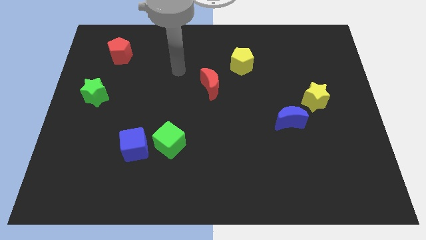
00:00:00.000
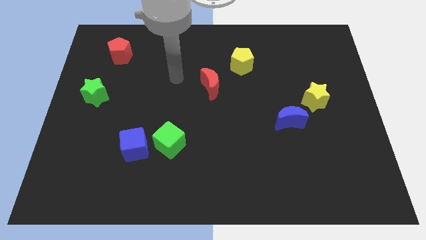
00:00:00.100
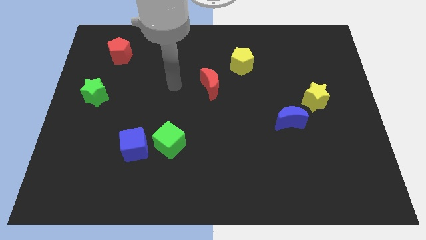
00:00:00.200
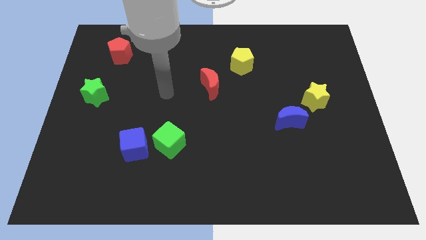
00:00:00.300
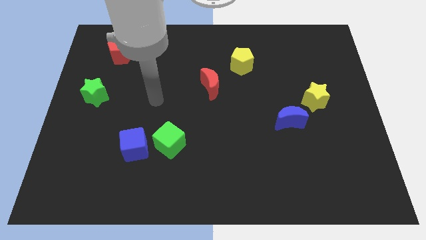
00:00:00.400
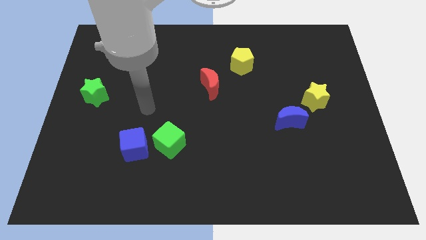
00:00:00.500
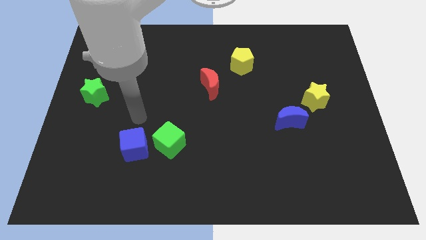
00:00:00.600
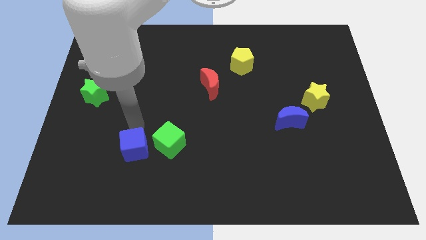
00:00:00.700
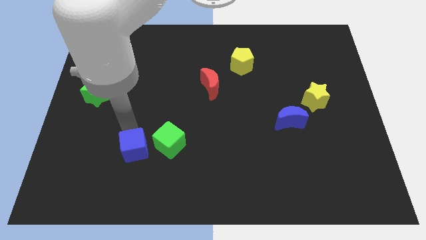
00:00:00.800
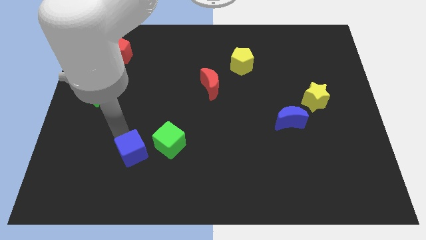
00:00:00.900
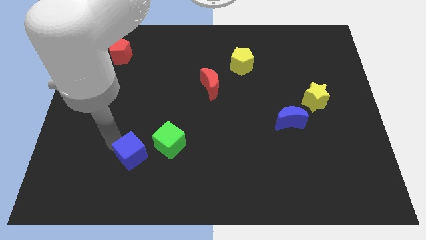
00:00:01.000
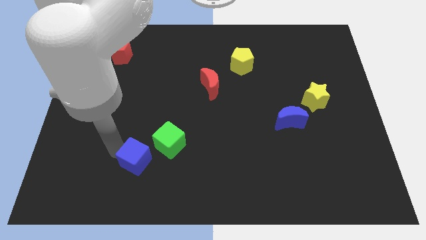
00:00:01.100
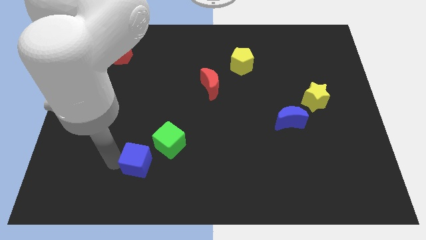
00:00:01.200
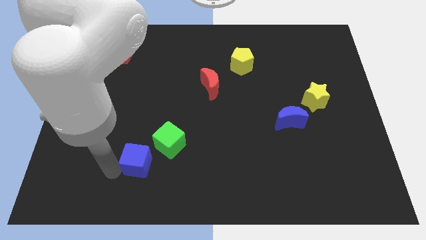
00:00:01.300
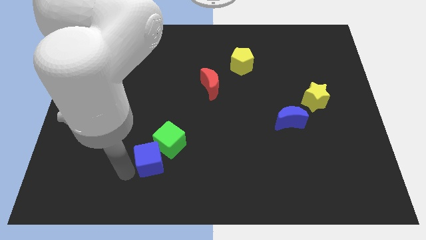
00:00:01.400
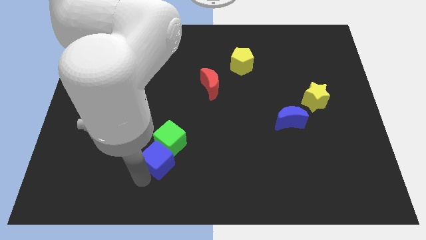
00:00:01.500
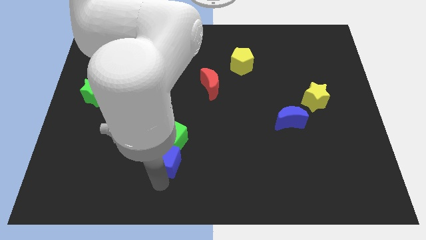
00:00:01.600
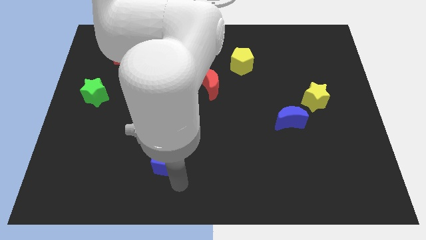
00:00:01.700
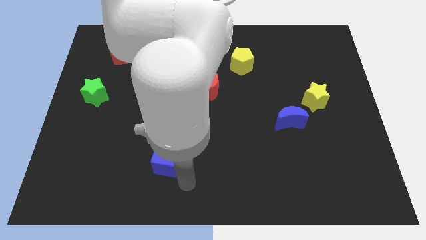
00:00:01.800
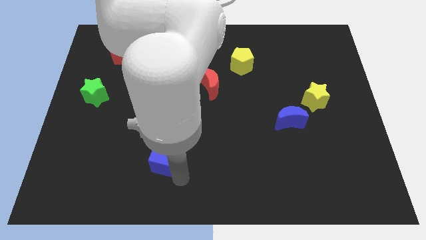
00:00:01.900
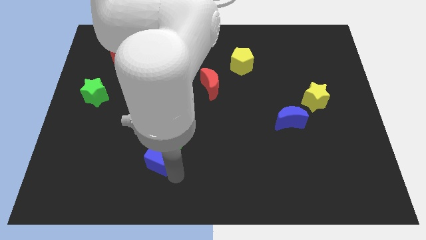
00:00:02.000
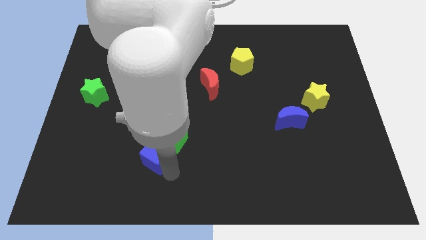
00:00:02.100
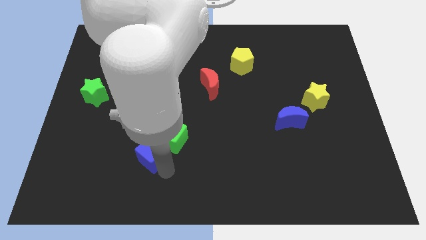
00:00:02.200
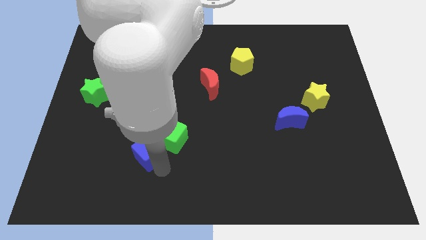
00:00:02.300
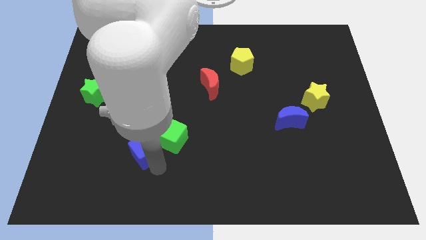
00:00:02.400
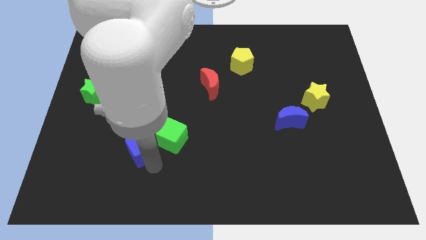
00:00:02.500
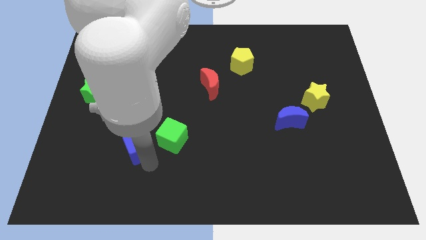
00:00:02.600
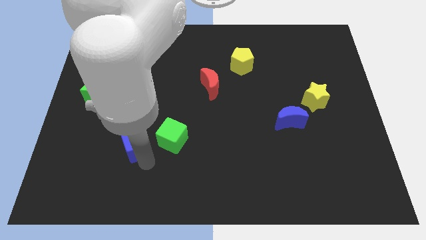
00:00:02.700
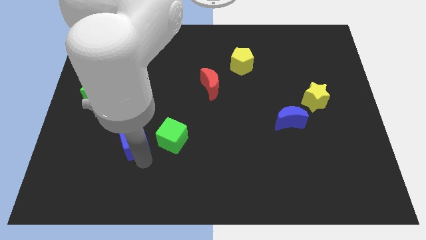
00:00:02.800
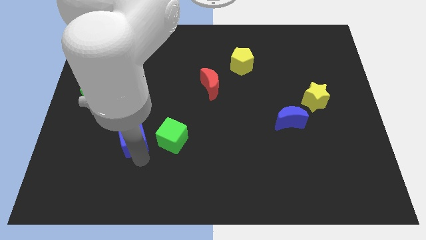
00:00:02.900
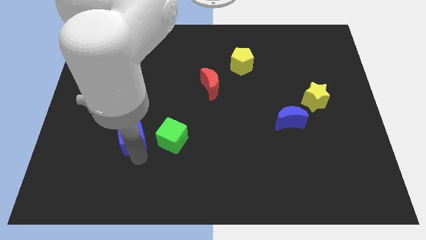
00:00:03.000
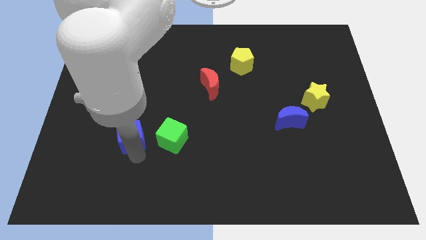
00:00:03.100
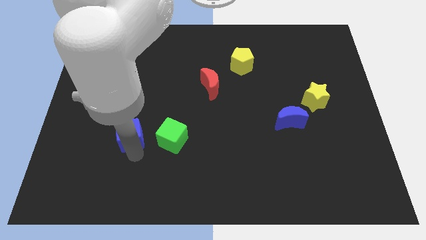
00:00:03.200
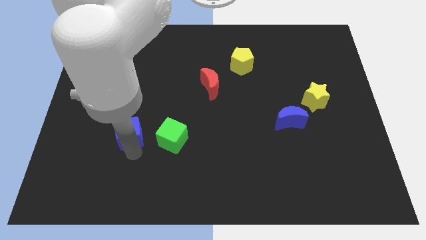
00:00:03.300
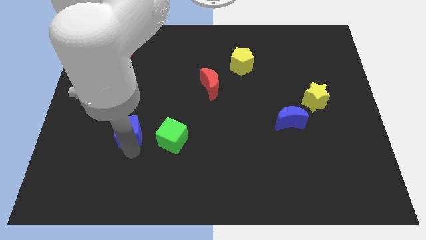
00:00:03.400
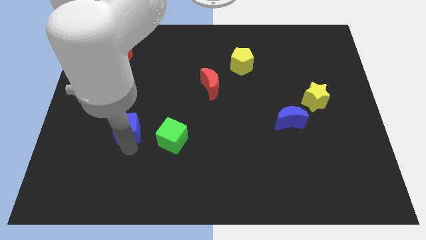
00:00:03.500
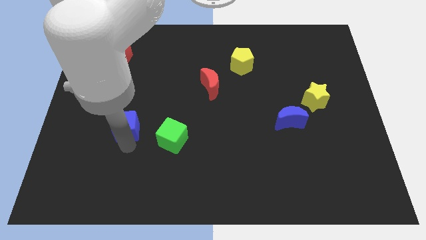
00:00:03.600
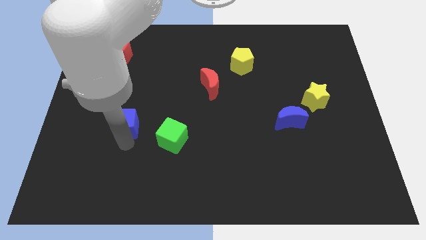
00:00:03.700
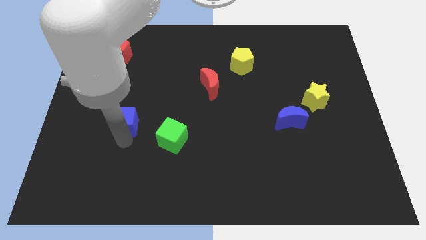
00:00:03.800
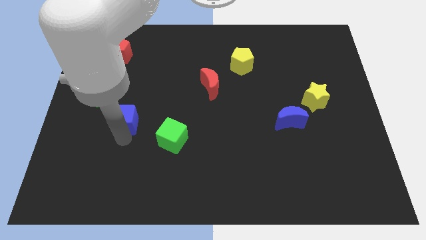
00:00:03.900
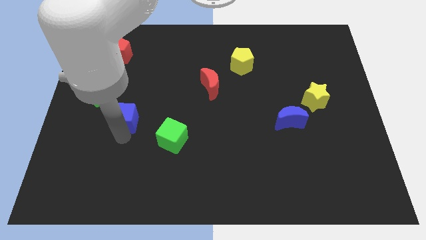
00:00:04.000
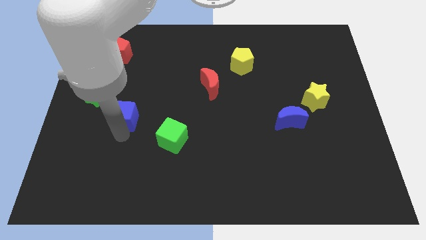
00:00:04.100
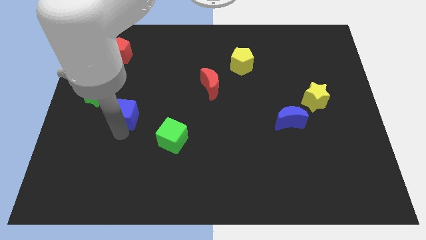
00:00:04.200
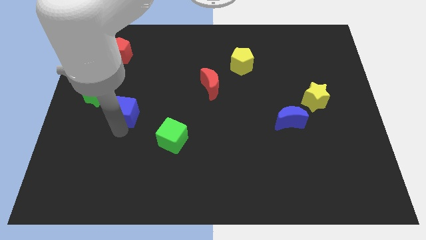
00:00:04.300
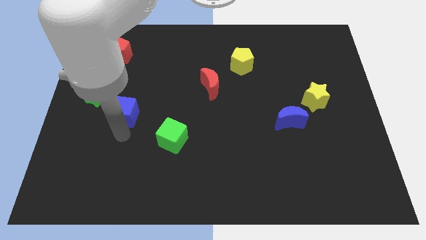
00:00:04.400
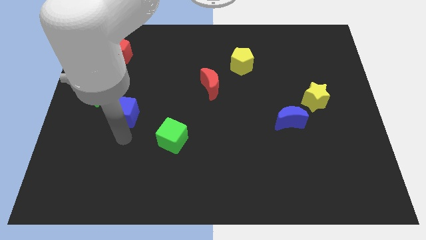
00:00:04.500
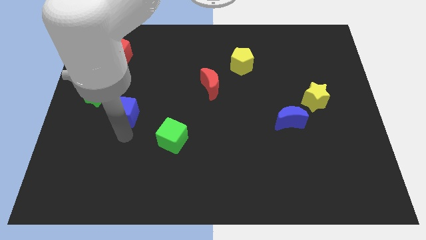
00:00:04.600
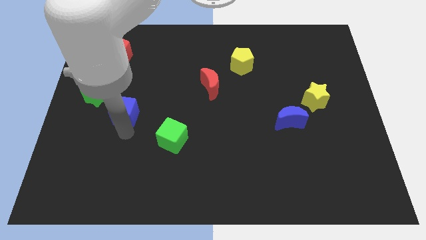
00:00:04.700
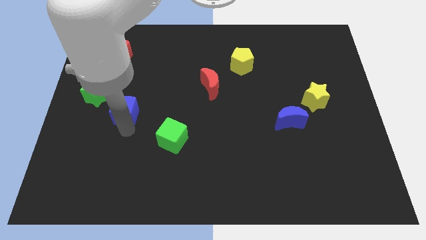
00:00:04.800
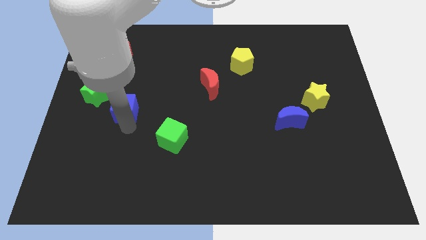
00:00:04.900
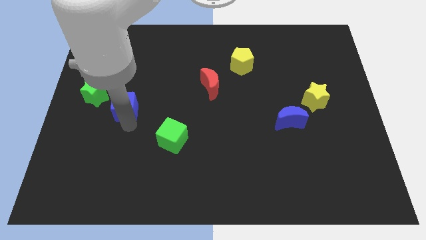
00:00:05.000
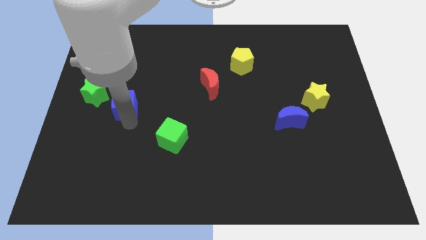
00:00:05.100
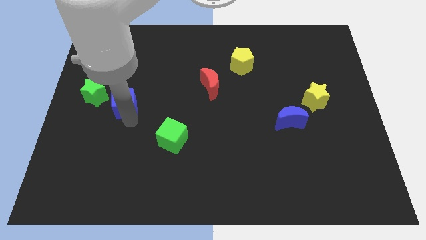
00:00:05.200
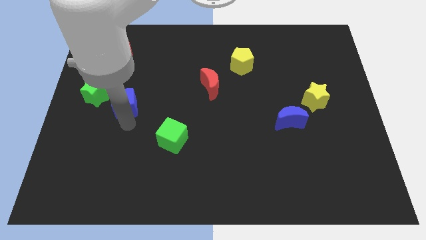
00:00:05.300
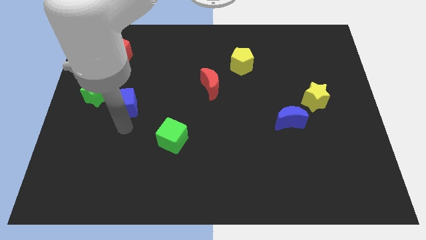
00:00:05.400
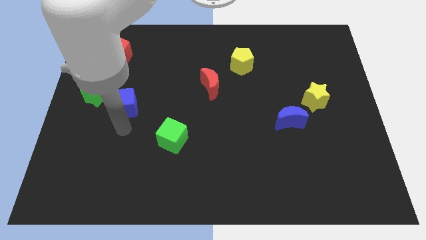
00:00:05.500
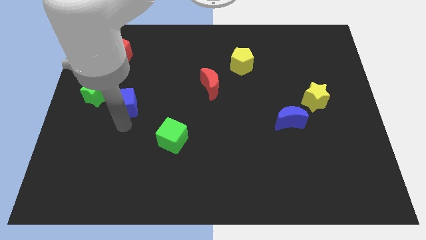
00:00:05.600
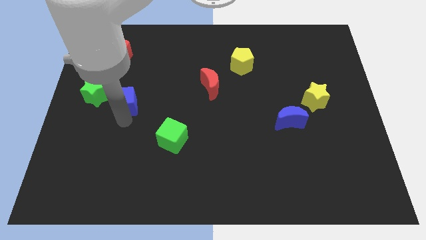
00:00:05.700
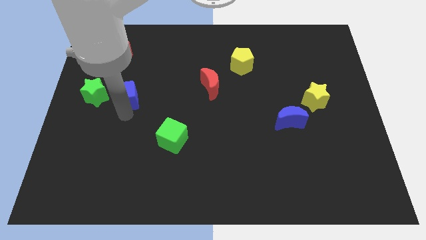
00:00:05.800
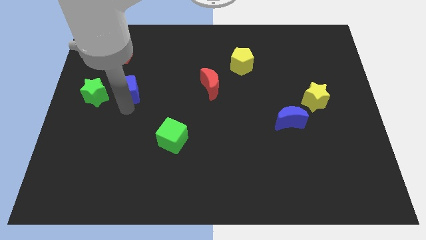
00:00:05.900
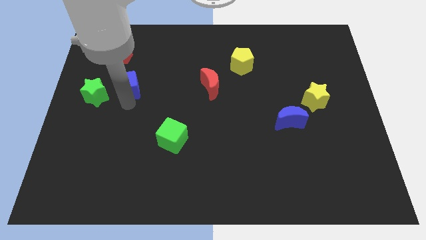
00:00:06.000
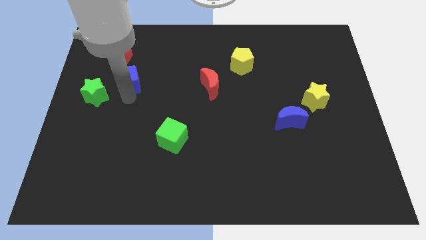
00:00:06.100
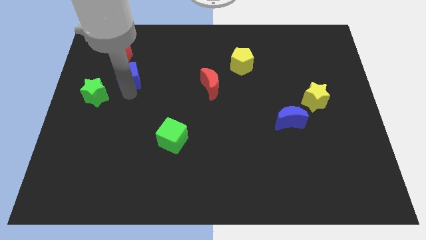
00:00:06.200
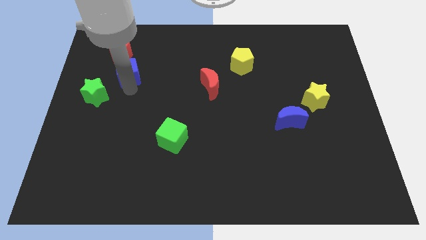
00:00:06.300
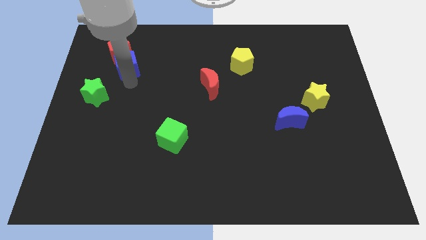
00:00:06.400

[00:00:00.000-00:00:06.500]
put the blue cube next to the red pentagon

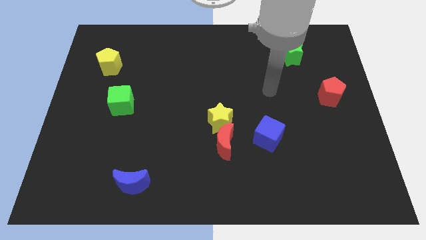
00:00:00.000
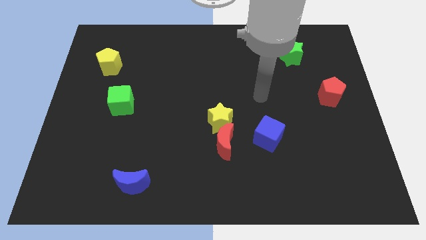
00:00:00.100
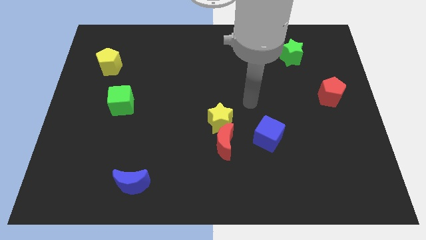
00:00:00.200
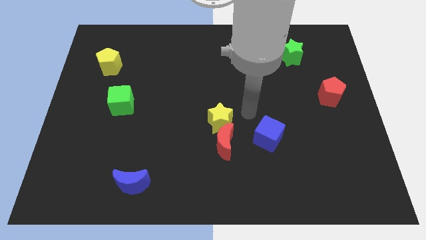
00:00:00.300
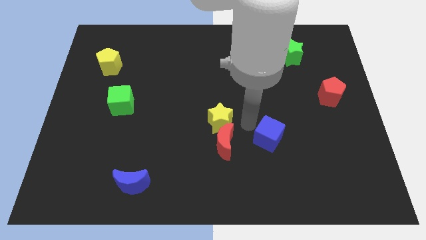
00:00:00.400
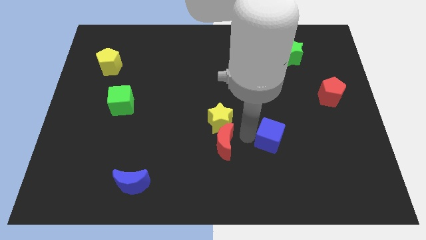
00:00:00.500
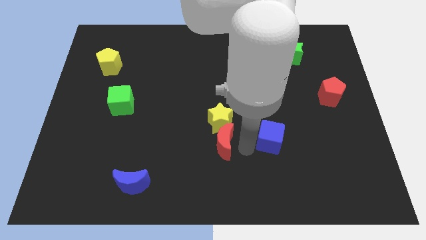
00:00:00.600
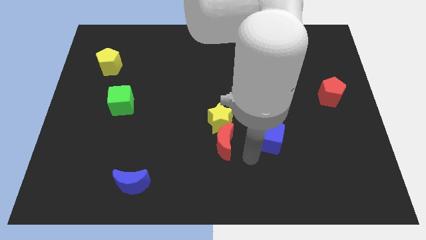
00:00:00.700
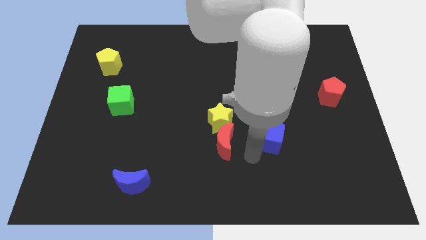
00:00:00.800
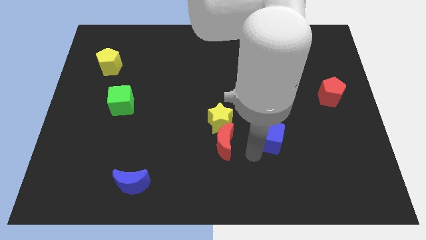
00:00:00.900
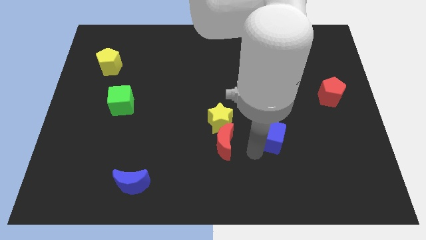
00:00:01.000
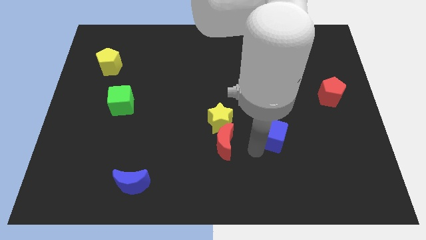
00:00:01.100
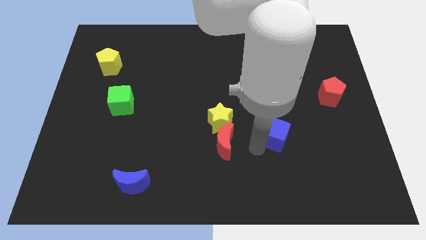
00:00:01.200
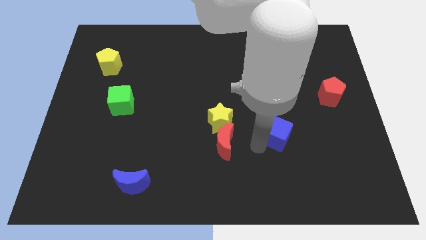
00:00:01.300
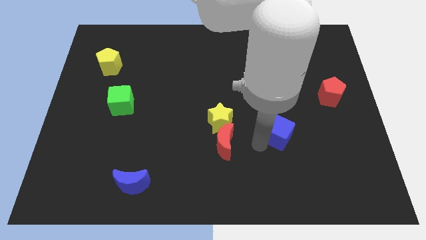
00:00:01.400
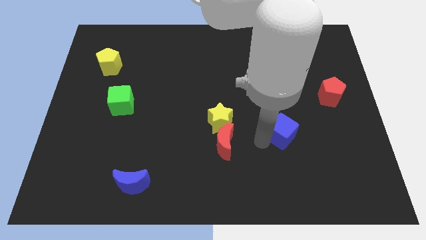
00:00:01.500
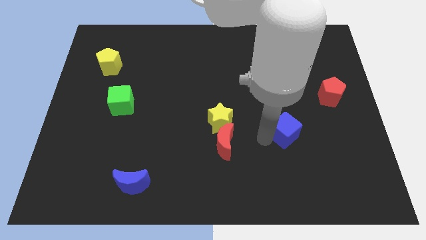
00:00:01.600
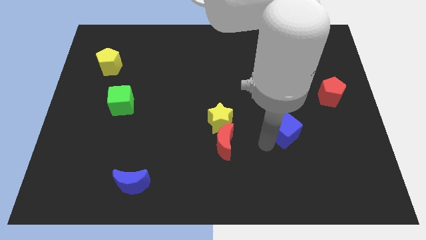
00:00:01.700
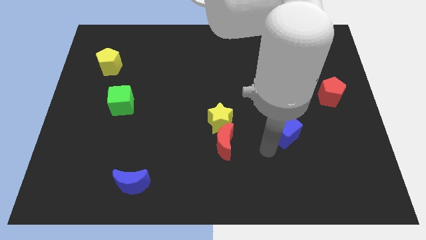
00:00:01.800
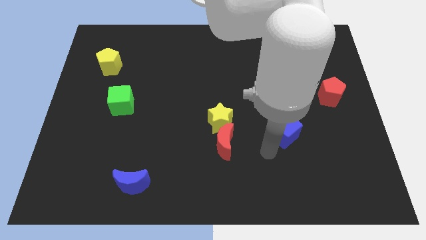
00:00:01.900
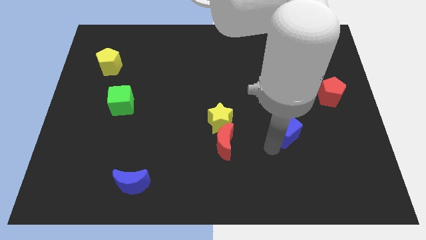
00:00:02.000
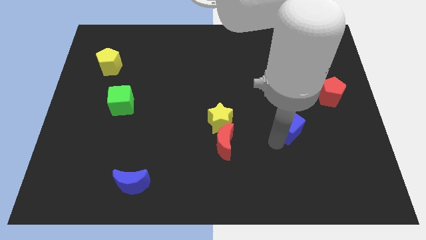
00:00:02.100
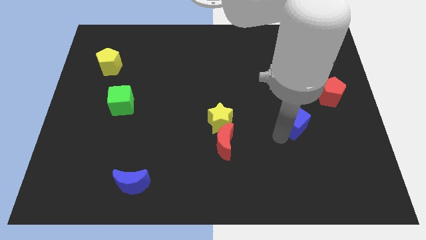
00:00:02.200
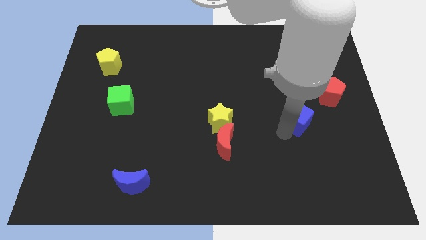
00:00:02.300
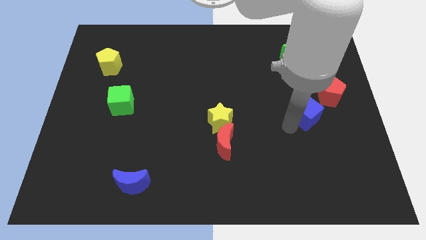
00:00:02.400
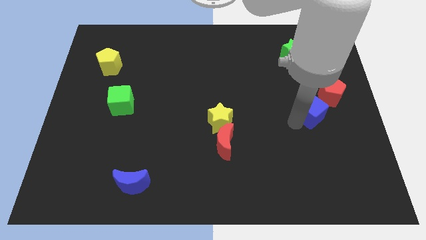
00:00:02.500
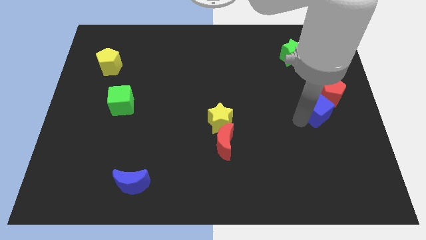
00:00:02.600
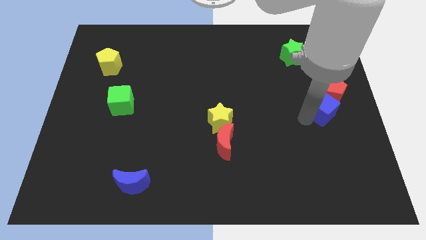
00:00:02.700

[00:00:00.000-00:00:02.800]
push the blue cube next to the red pentagon
